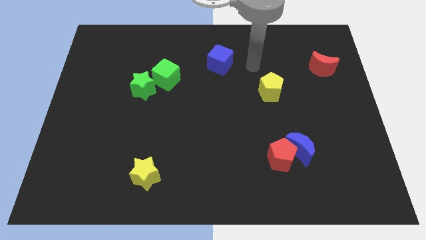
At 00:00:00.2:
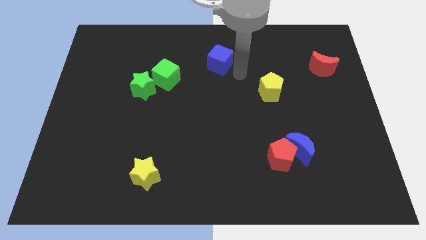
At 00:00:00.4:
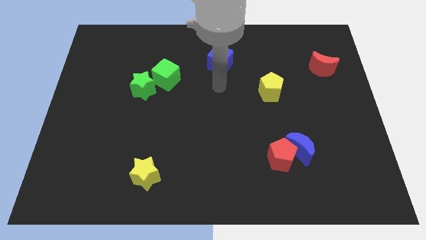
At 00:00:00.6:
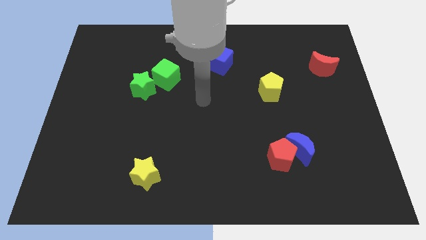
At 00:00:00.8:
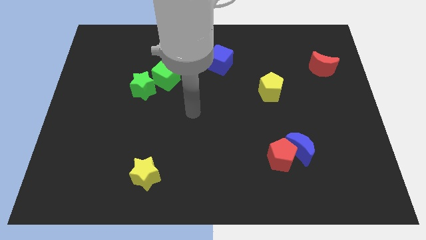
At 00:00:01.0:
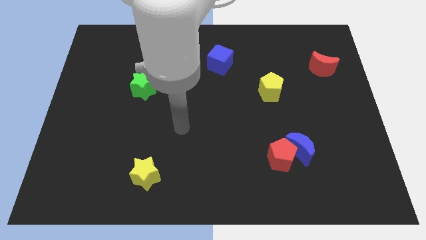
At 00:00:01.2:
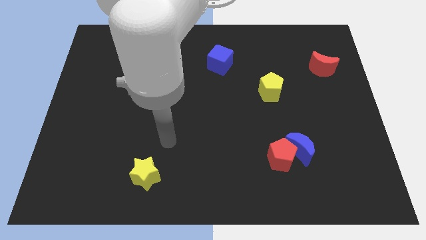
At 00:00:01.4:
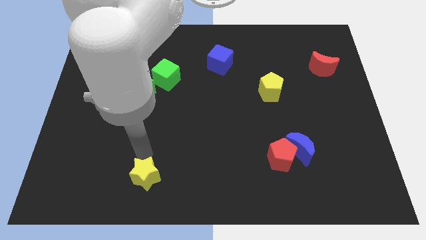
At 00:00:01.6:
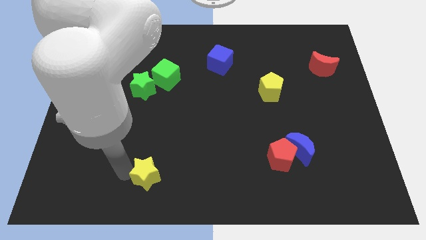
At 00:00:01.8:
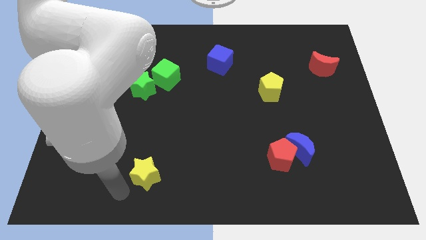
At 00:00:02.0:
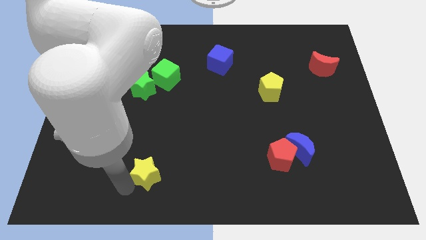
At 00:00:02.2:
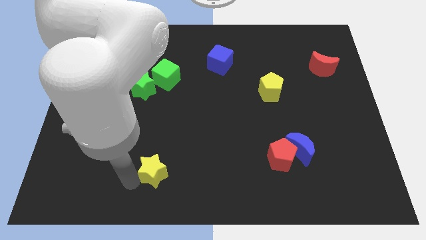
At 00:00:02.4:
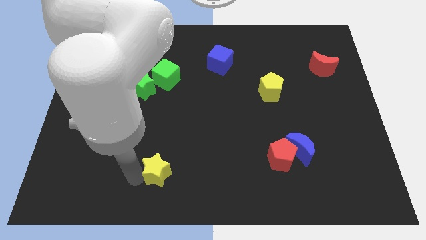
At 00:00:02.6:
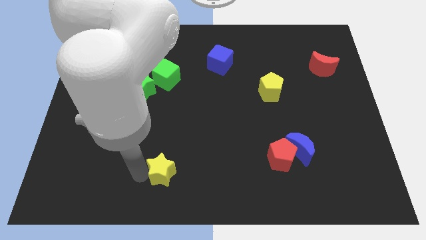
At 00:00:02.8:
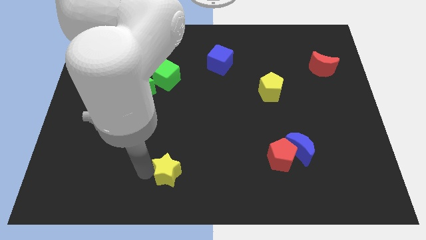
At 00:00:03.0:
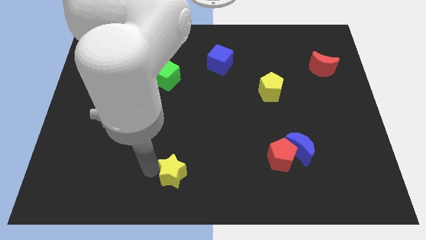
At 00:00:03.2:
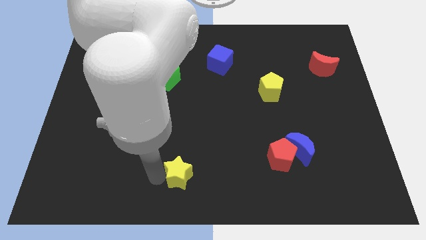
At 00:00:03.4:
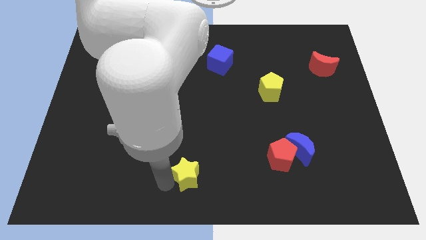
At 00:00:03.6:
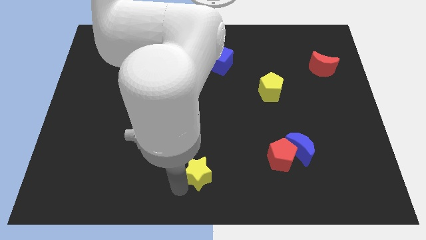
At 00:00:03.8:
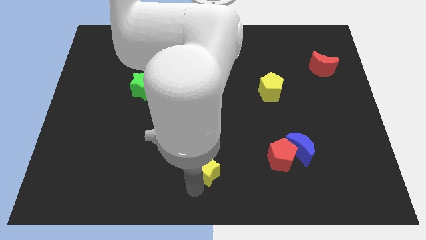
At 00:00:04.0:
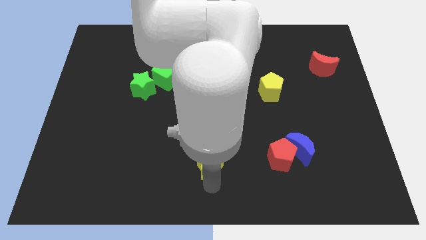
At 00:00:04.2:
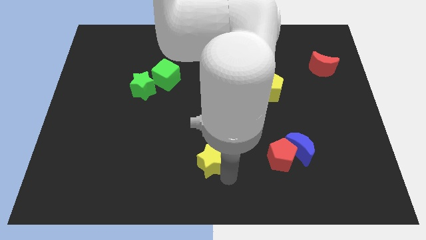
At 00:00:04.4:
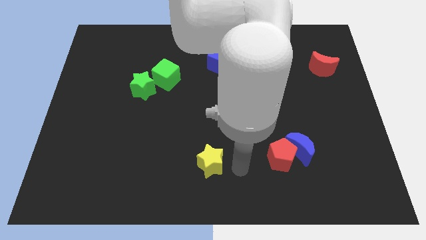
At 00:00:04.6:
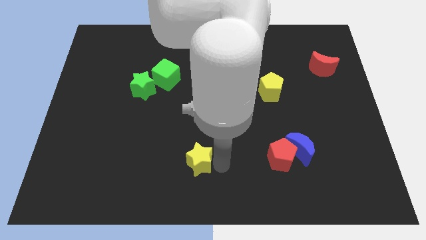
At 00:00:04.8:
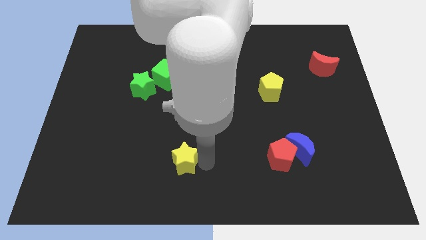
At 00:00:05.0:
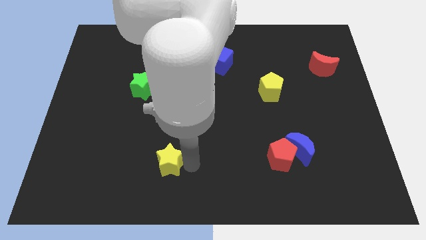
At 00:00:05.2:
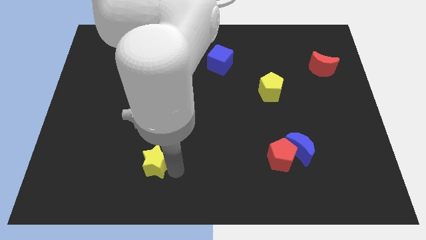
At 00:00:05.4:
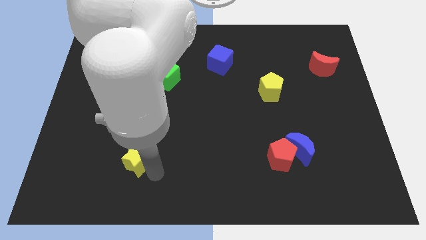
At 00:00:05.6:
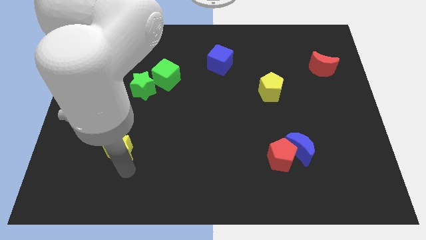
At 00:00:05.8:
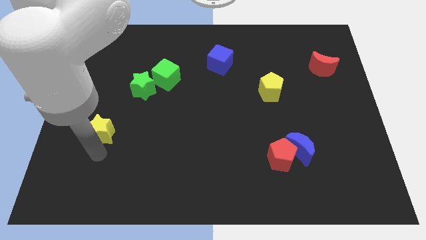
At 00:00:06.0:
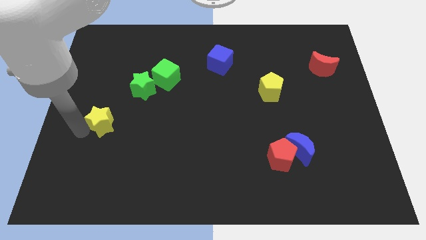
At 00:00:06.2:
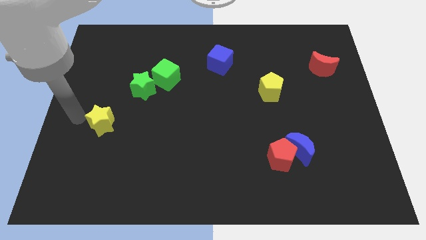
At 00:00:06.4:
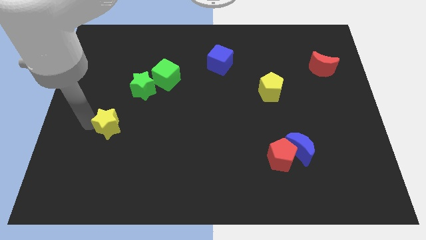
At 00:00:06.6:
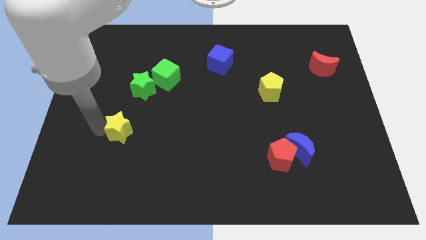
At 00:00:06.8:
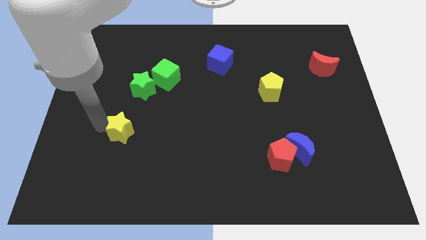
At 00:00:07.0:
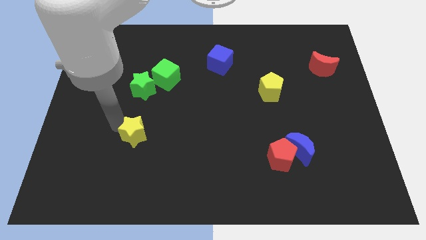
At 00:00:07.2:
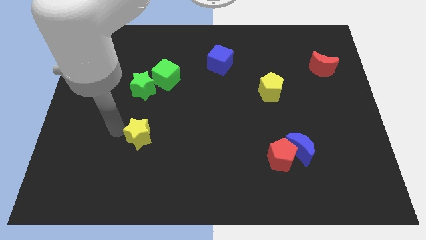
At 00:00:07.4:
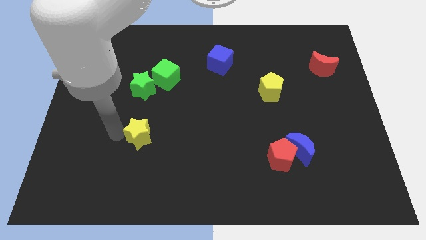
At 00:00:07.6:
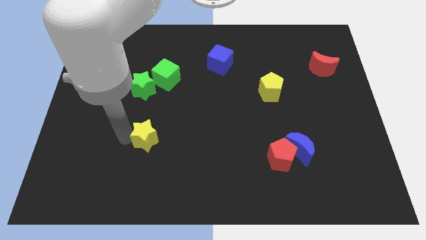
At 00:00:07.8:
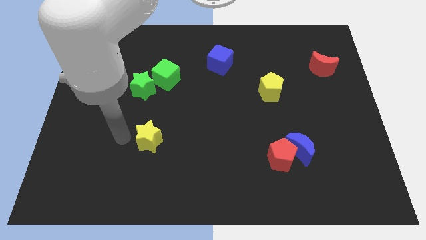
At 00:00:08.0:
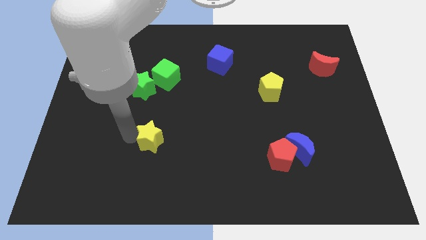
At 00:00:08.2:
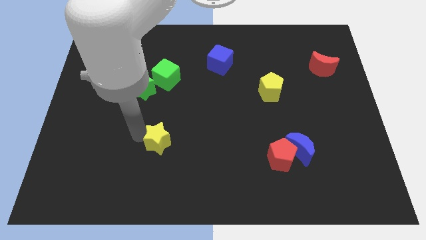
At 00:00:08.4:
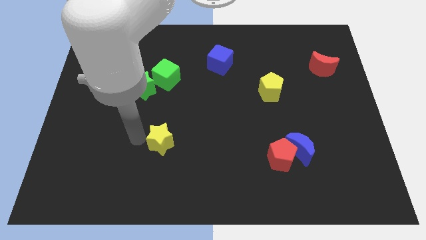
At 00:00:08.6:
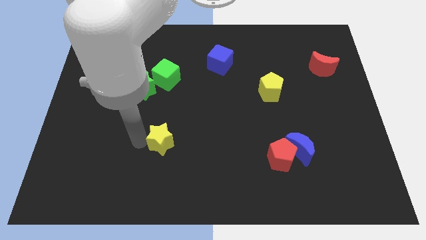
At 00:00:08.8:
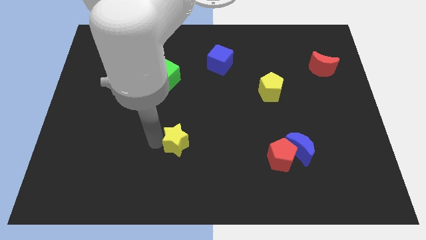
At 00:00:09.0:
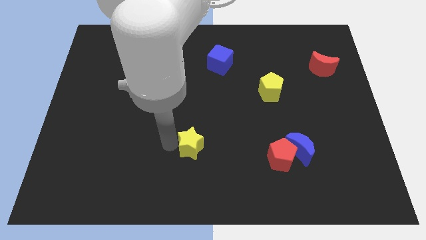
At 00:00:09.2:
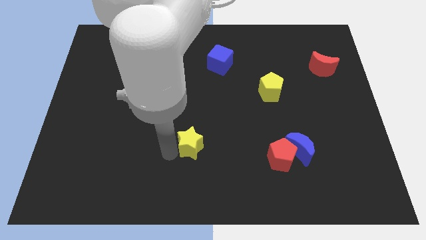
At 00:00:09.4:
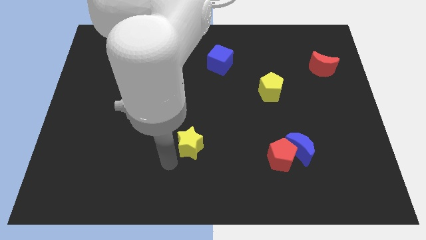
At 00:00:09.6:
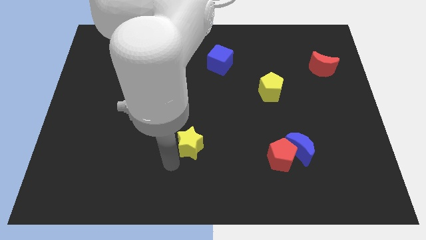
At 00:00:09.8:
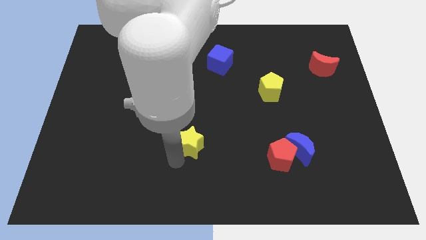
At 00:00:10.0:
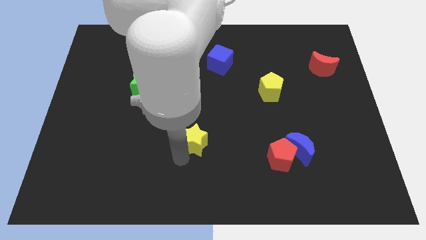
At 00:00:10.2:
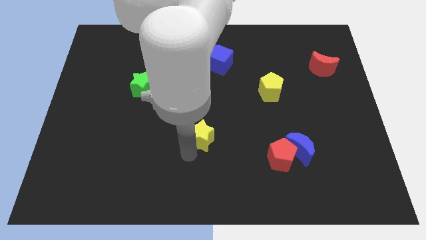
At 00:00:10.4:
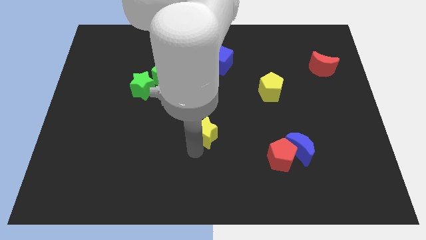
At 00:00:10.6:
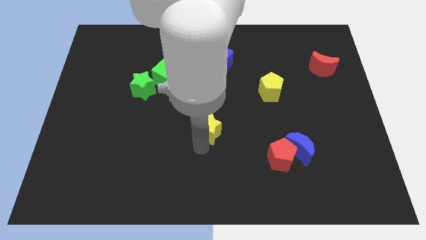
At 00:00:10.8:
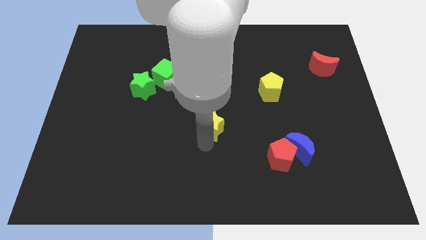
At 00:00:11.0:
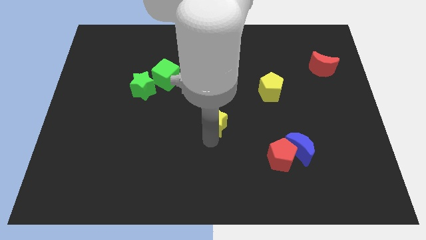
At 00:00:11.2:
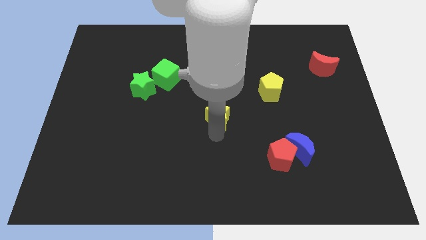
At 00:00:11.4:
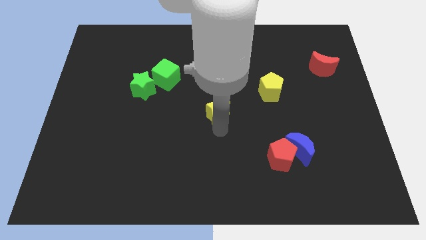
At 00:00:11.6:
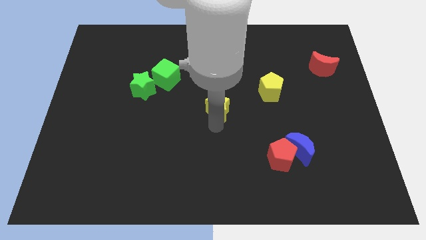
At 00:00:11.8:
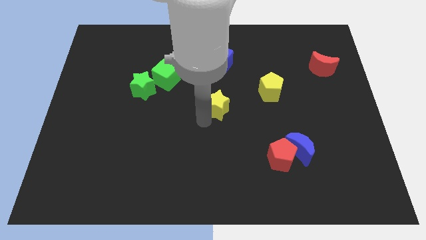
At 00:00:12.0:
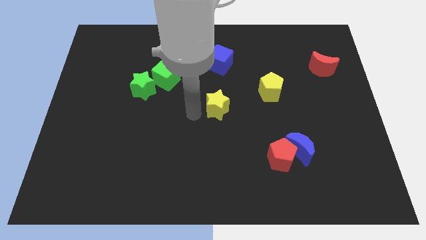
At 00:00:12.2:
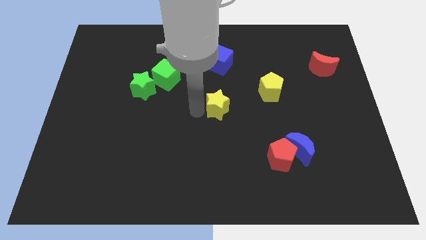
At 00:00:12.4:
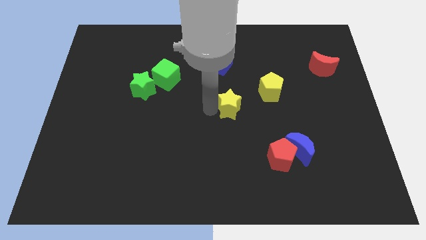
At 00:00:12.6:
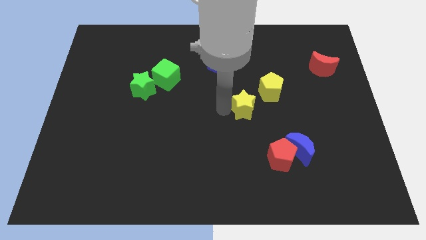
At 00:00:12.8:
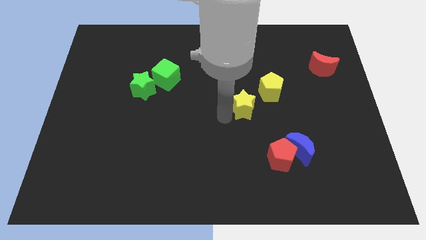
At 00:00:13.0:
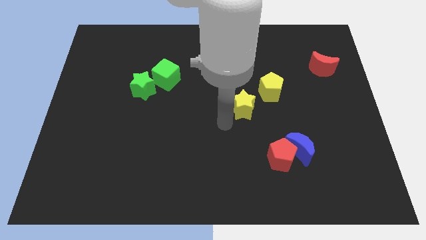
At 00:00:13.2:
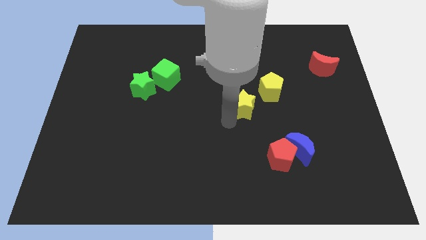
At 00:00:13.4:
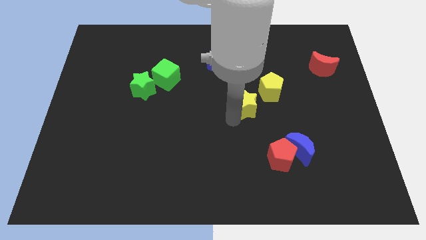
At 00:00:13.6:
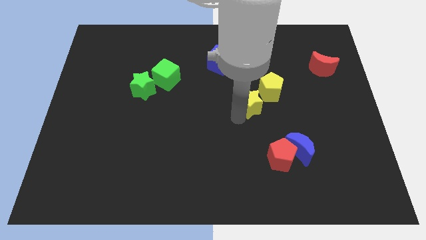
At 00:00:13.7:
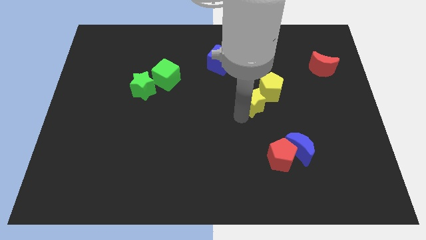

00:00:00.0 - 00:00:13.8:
slide the yellow star towards the yellow pentagon

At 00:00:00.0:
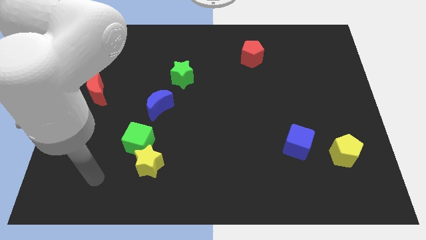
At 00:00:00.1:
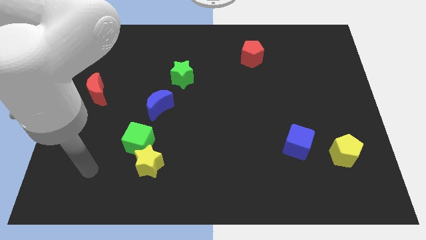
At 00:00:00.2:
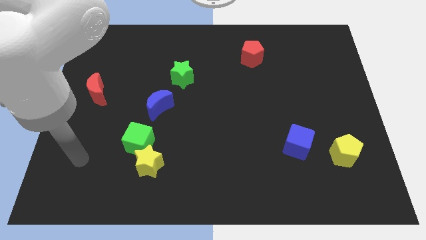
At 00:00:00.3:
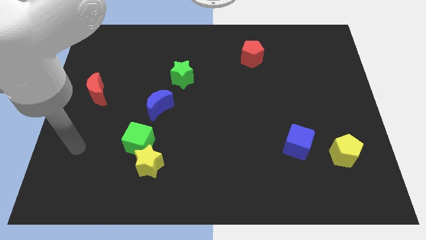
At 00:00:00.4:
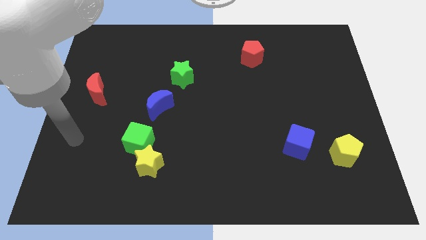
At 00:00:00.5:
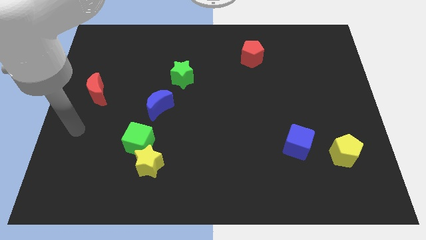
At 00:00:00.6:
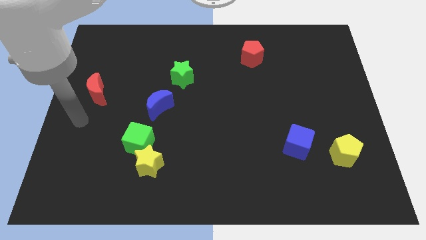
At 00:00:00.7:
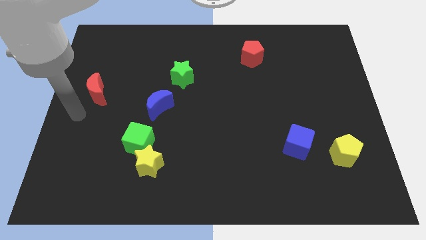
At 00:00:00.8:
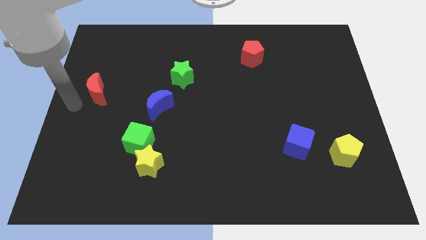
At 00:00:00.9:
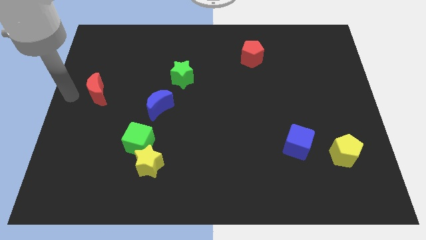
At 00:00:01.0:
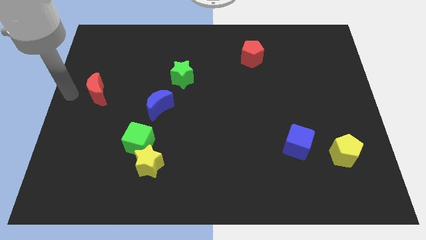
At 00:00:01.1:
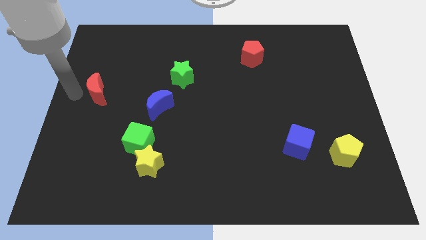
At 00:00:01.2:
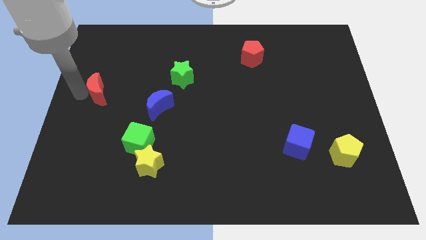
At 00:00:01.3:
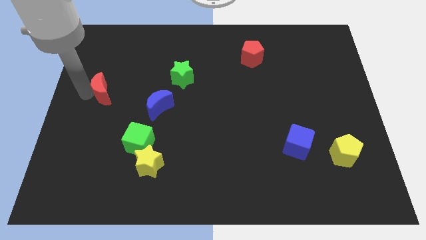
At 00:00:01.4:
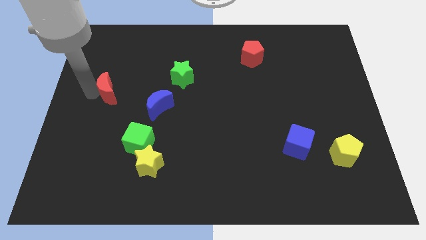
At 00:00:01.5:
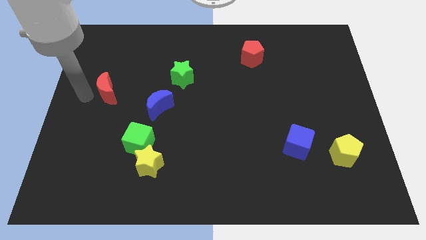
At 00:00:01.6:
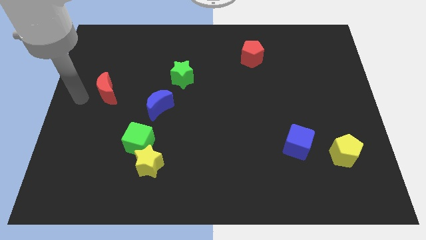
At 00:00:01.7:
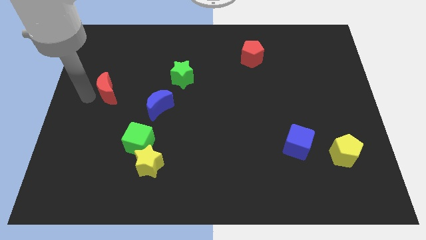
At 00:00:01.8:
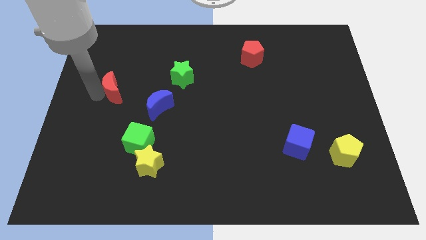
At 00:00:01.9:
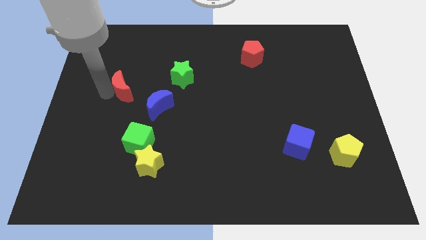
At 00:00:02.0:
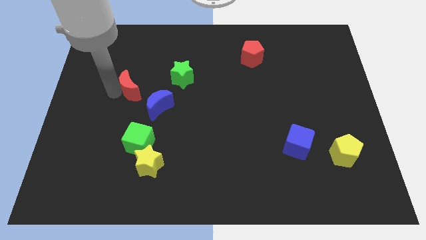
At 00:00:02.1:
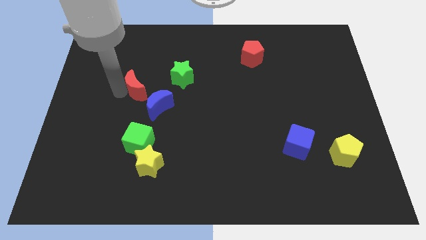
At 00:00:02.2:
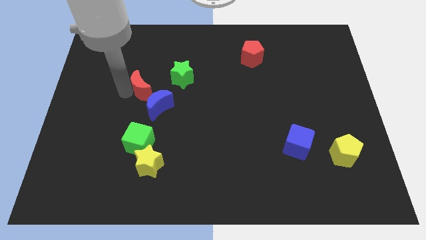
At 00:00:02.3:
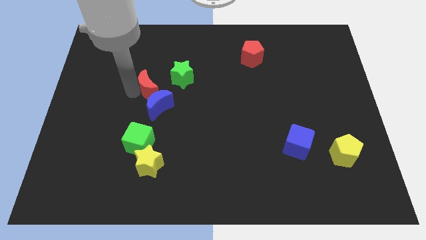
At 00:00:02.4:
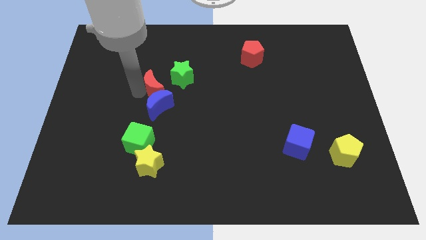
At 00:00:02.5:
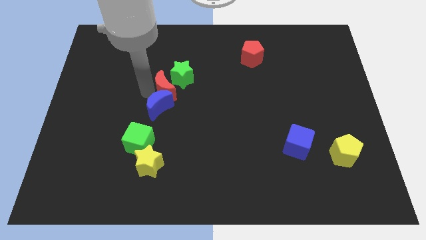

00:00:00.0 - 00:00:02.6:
put the red moon next to the green star
